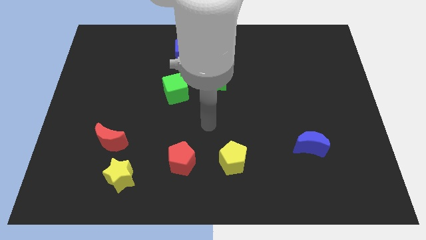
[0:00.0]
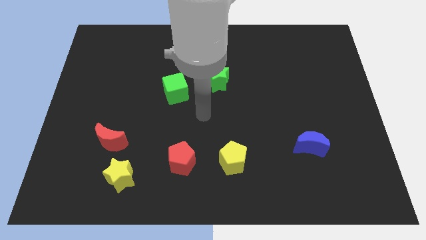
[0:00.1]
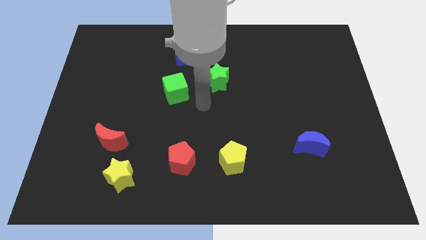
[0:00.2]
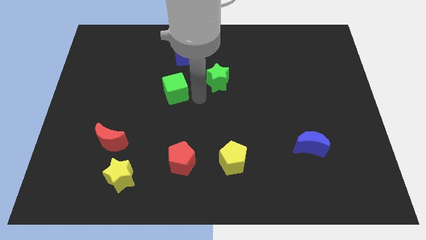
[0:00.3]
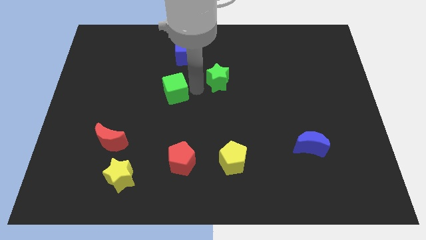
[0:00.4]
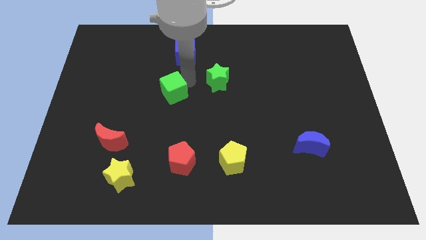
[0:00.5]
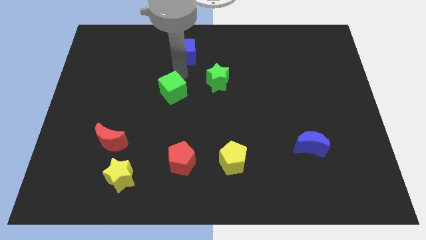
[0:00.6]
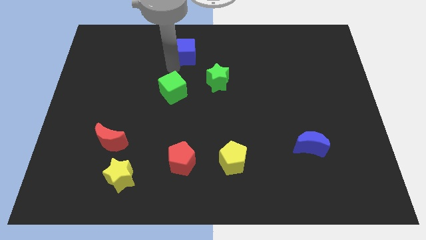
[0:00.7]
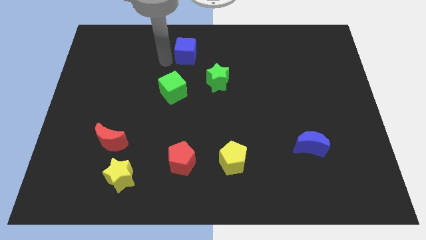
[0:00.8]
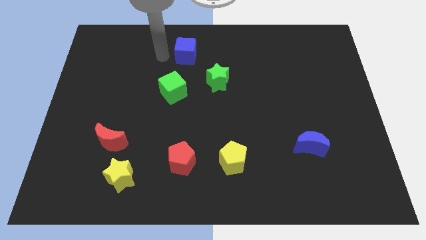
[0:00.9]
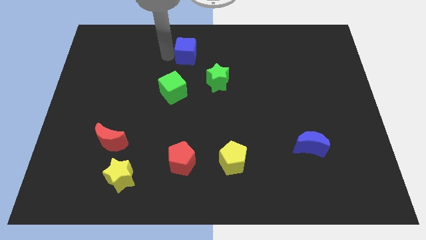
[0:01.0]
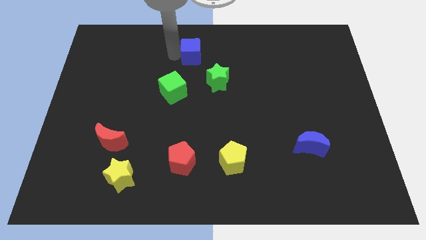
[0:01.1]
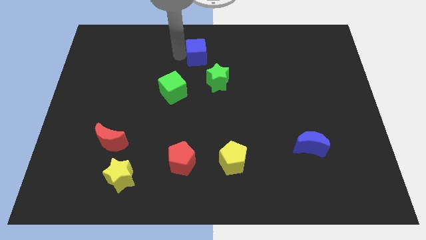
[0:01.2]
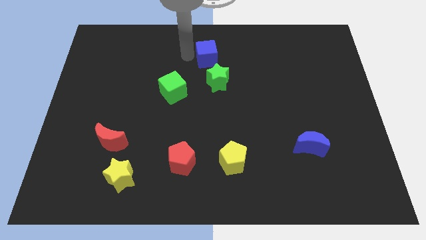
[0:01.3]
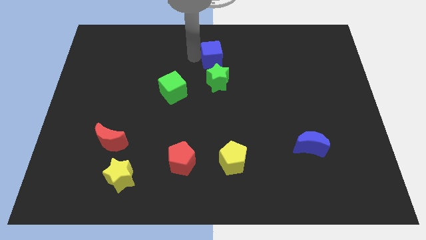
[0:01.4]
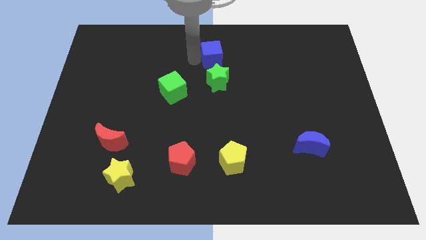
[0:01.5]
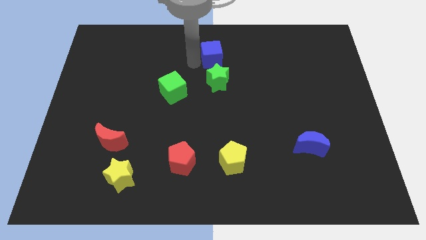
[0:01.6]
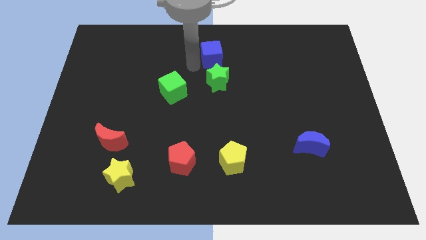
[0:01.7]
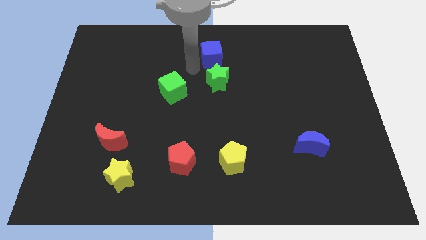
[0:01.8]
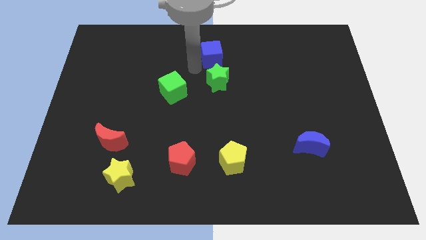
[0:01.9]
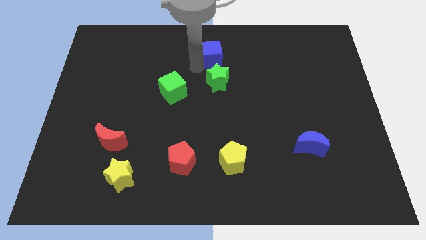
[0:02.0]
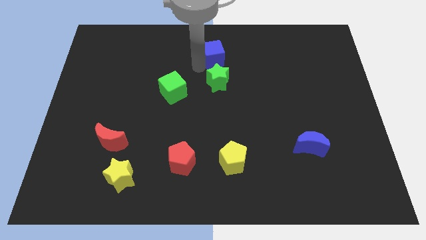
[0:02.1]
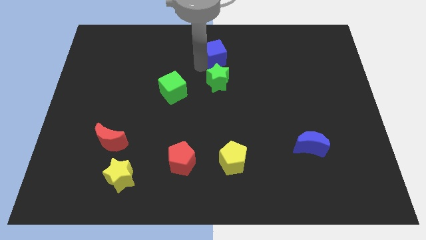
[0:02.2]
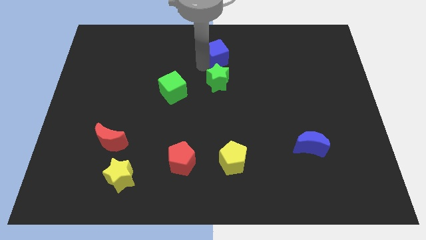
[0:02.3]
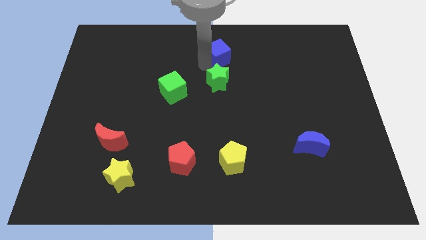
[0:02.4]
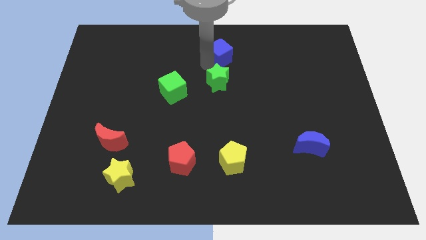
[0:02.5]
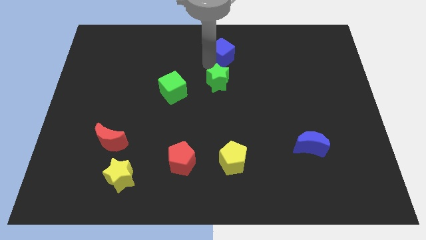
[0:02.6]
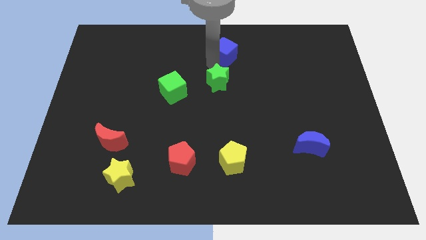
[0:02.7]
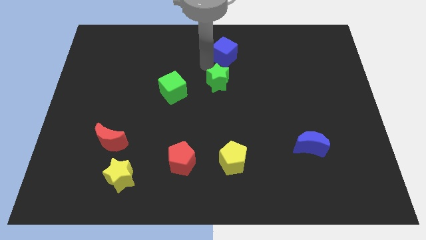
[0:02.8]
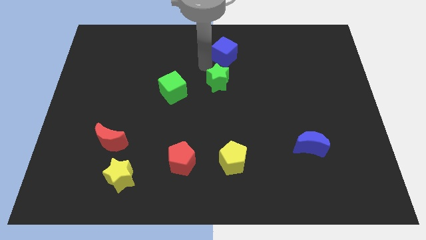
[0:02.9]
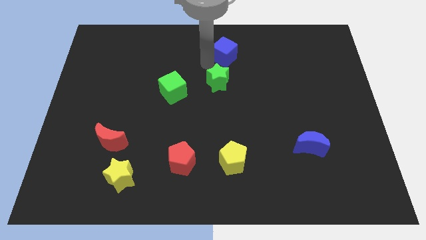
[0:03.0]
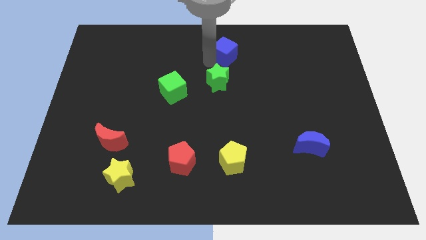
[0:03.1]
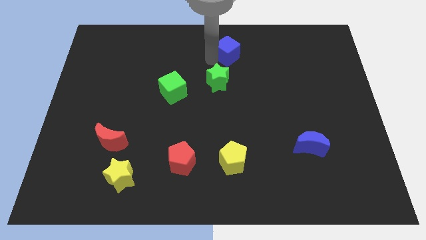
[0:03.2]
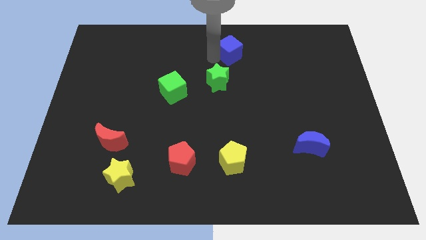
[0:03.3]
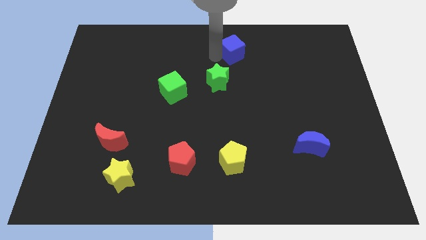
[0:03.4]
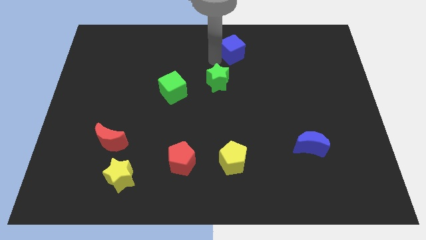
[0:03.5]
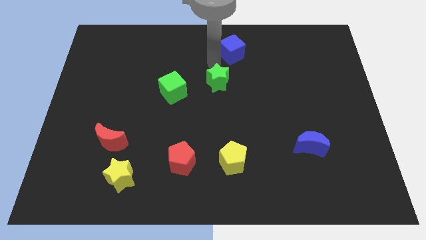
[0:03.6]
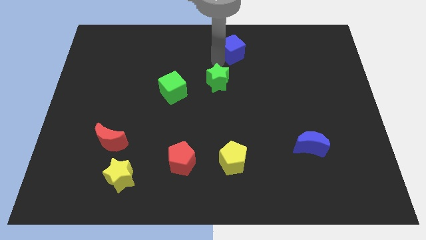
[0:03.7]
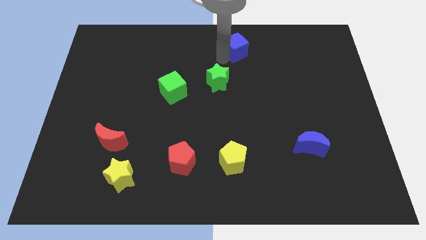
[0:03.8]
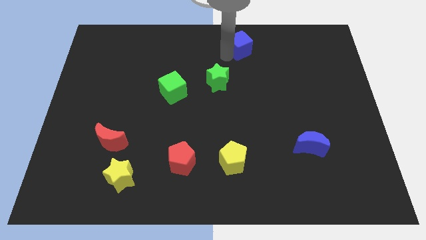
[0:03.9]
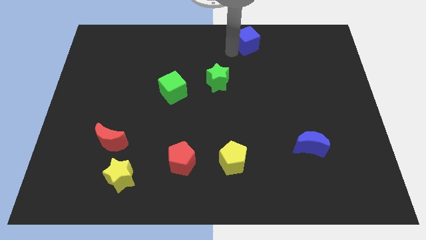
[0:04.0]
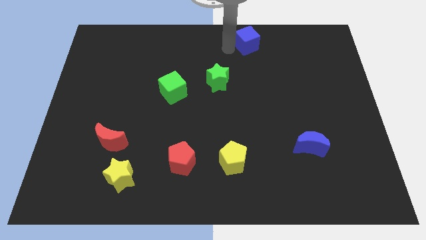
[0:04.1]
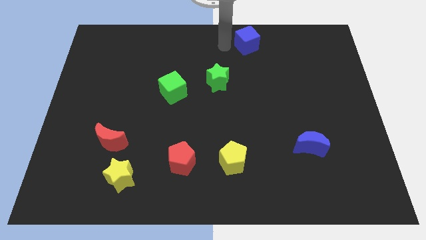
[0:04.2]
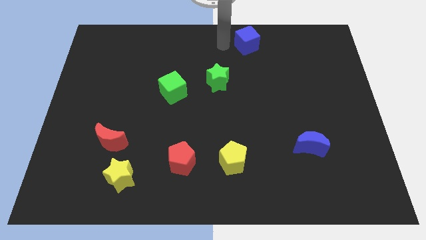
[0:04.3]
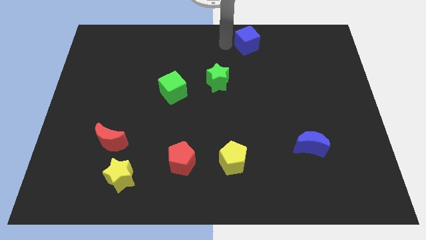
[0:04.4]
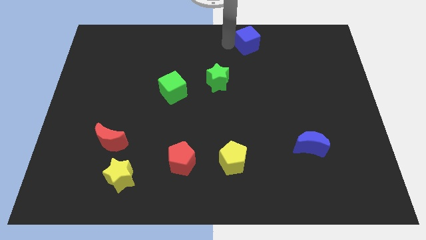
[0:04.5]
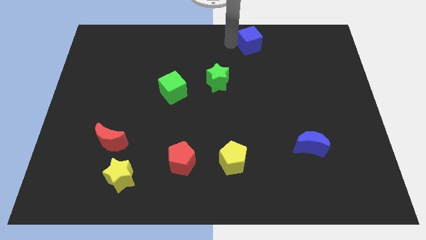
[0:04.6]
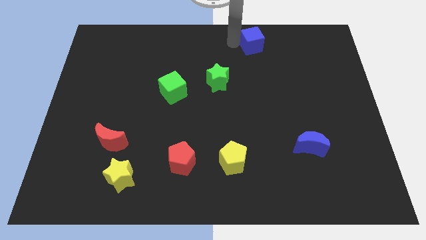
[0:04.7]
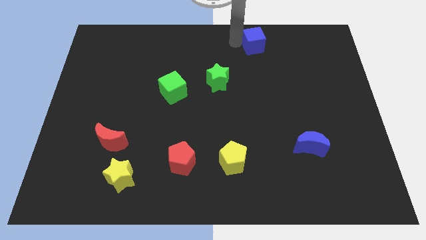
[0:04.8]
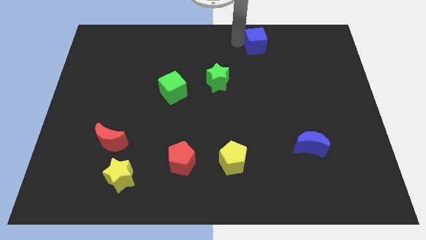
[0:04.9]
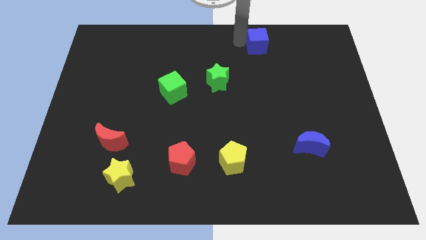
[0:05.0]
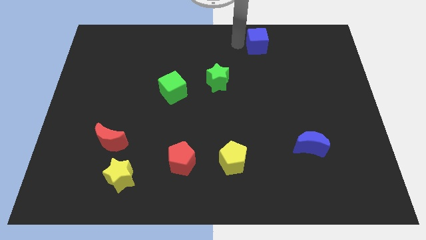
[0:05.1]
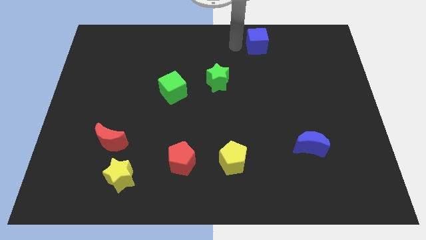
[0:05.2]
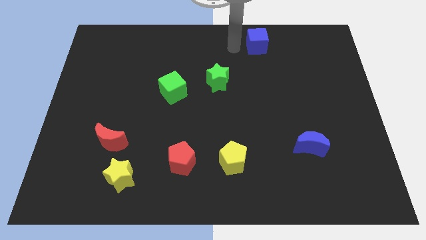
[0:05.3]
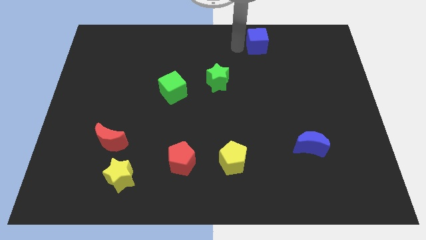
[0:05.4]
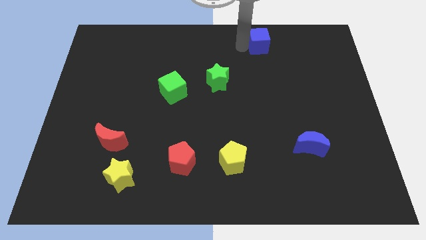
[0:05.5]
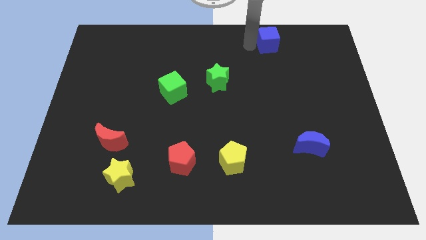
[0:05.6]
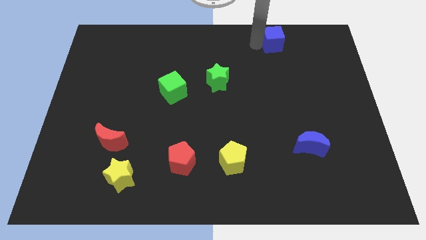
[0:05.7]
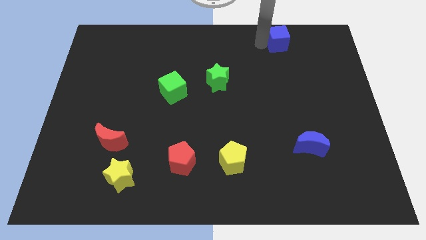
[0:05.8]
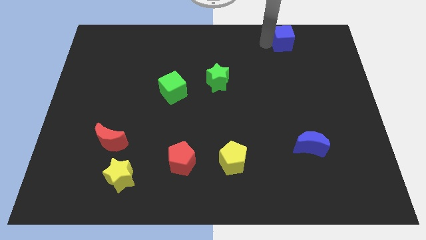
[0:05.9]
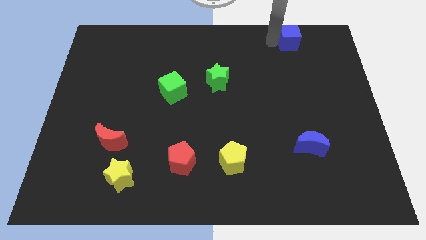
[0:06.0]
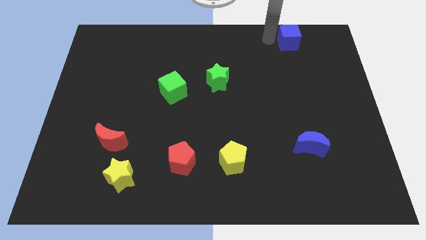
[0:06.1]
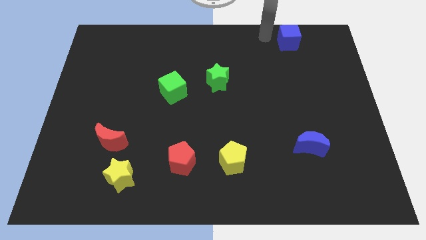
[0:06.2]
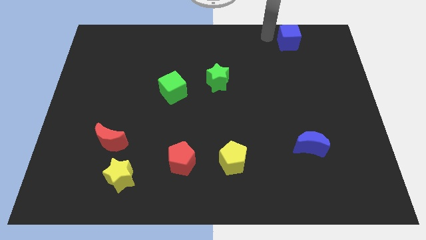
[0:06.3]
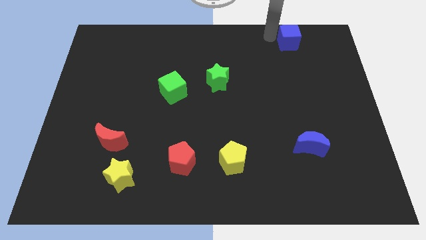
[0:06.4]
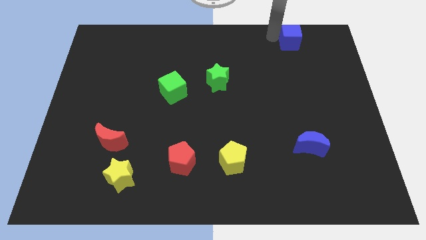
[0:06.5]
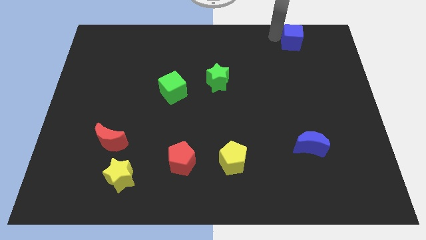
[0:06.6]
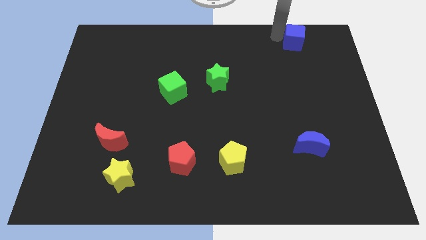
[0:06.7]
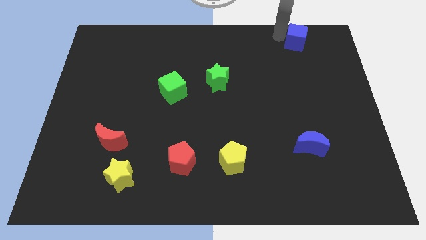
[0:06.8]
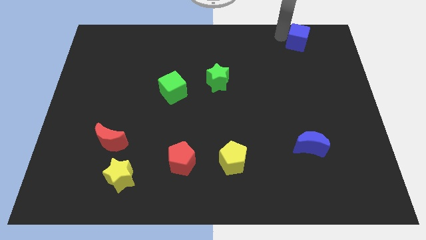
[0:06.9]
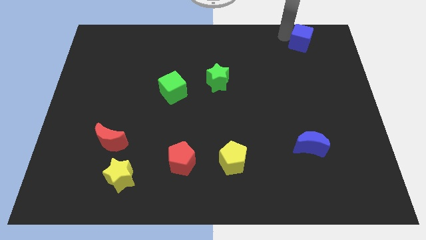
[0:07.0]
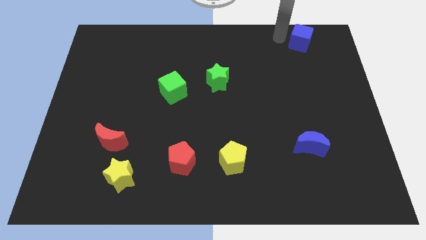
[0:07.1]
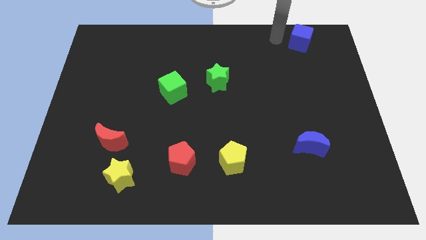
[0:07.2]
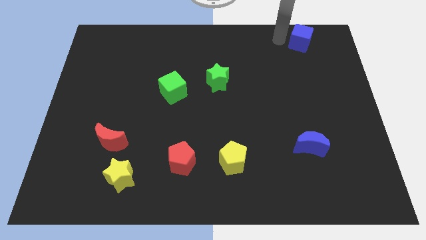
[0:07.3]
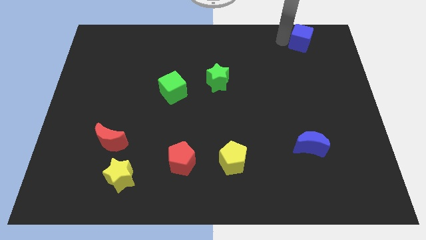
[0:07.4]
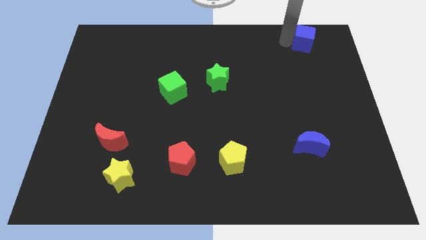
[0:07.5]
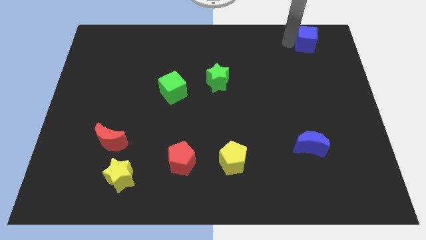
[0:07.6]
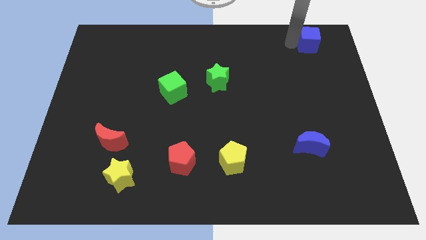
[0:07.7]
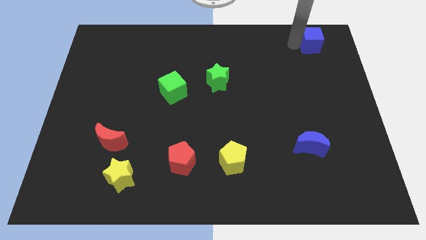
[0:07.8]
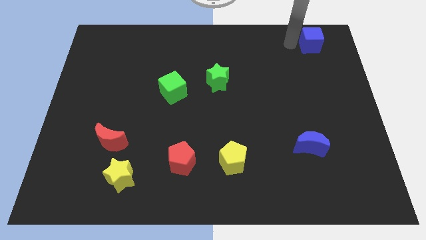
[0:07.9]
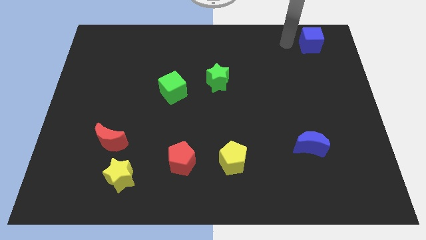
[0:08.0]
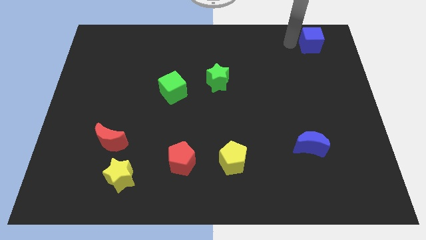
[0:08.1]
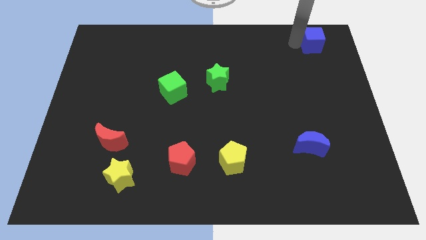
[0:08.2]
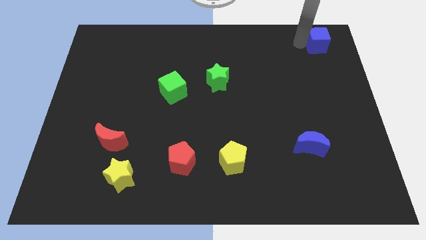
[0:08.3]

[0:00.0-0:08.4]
put the blue cube to the top right corner
